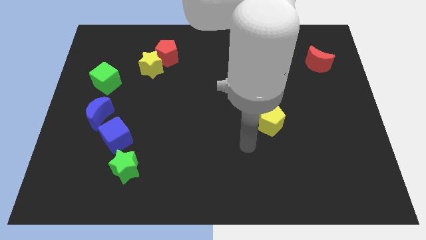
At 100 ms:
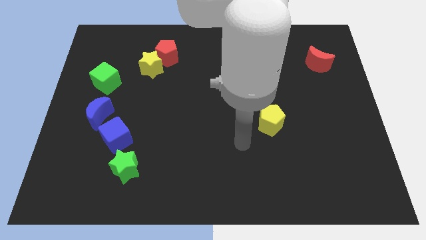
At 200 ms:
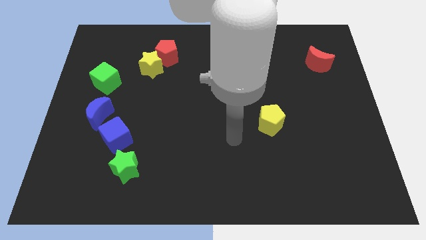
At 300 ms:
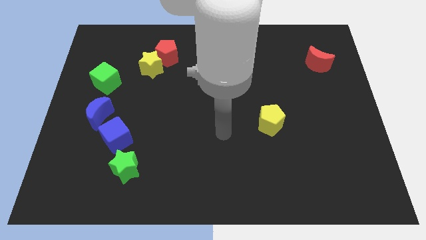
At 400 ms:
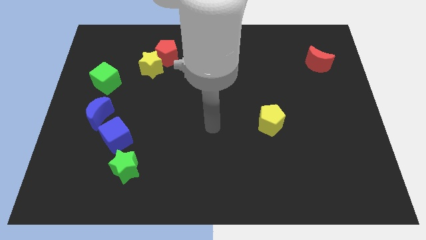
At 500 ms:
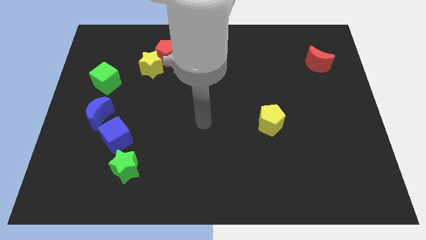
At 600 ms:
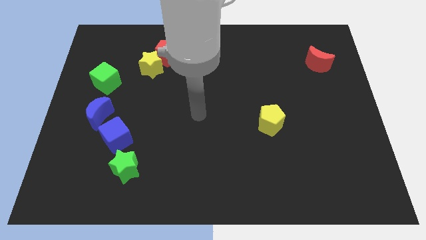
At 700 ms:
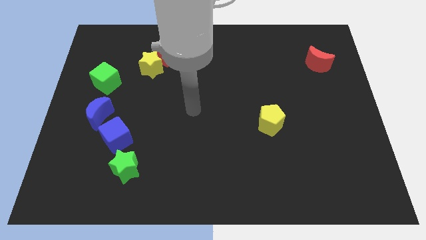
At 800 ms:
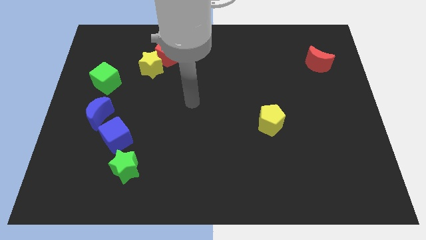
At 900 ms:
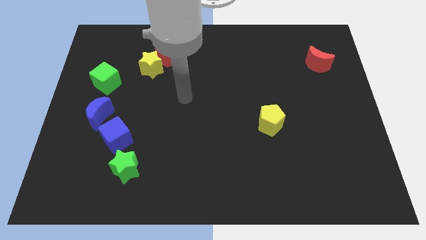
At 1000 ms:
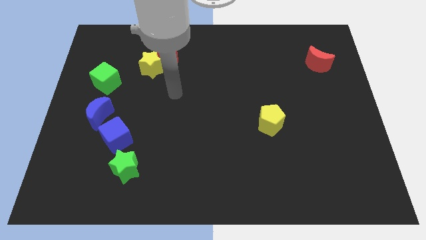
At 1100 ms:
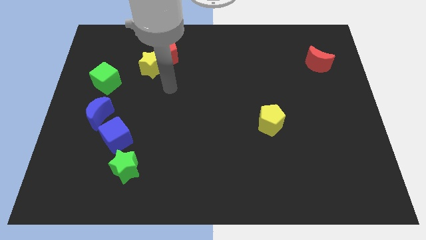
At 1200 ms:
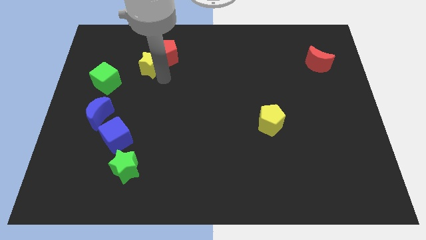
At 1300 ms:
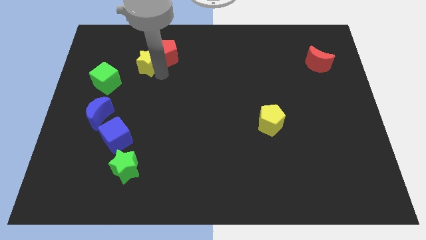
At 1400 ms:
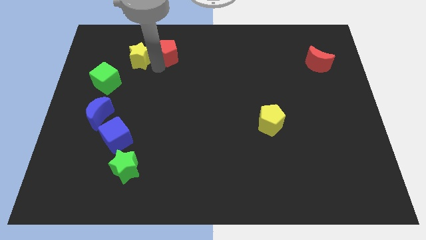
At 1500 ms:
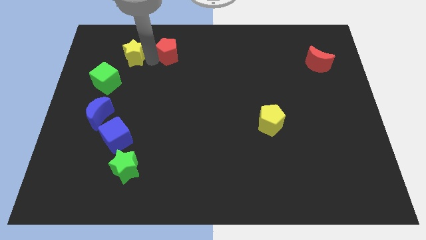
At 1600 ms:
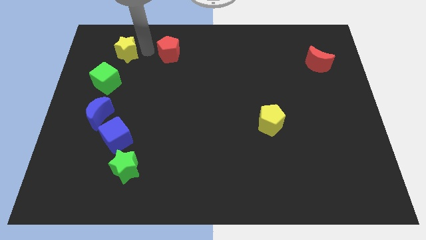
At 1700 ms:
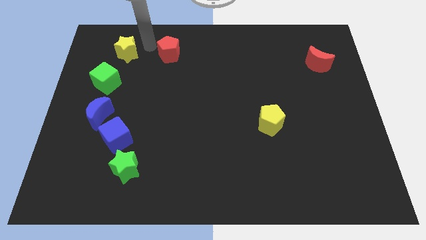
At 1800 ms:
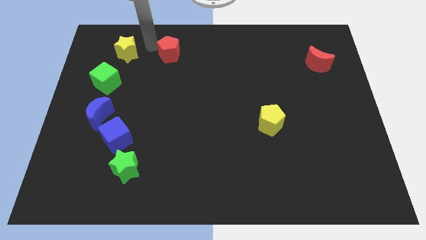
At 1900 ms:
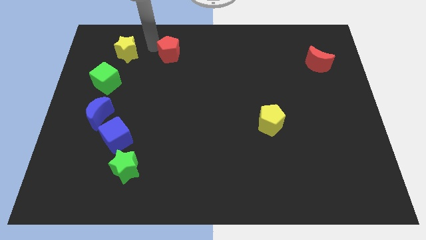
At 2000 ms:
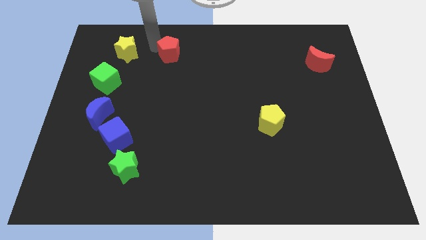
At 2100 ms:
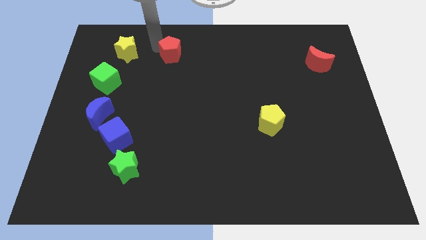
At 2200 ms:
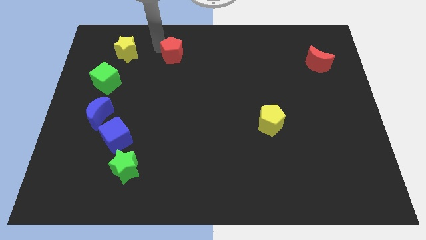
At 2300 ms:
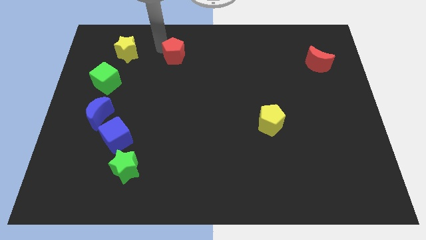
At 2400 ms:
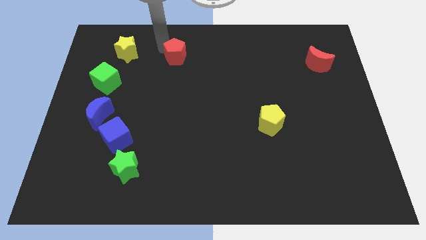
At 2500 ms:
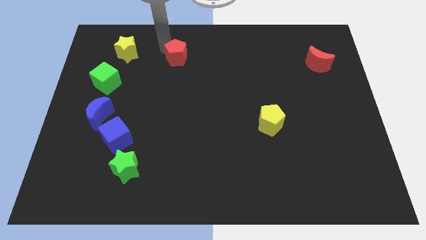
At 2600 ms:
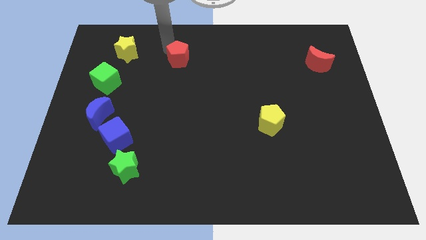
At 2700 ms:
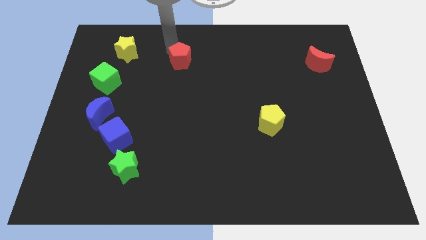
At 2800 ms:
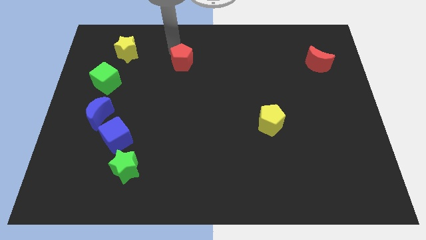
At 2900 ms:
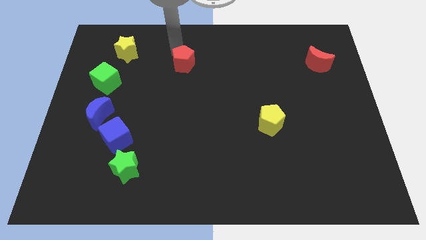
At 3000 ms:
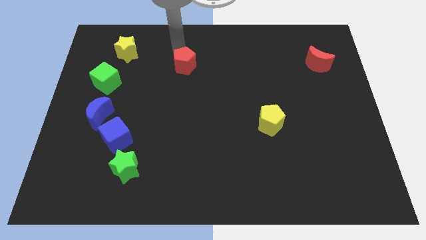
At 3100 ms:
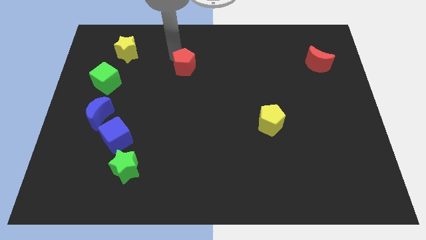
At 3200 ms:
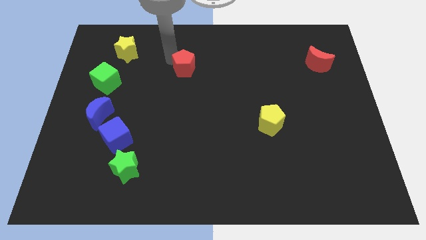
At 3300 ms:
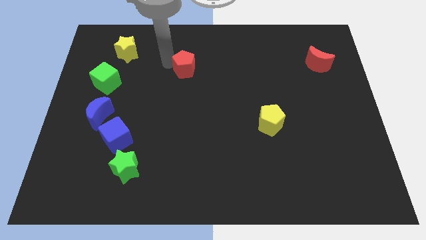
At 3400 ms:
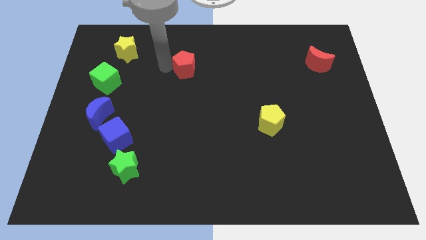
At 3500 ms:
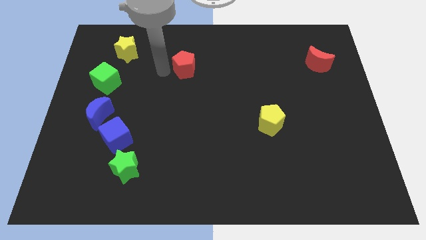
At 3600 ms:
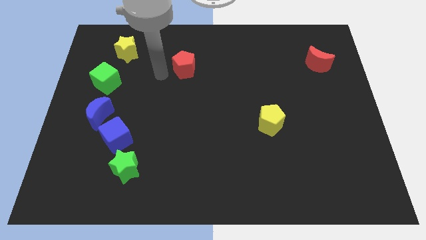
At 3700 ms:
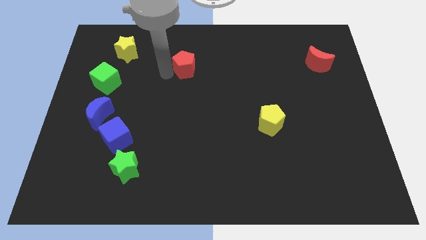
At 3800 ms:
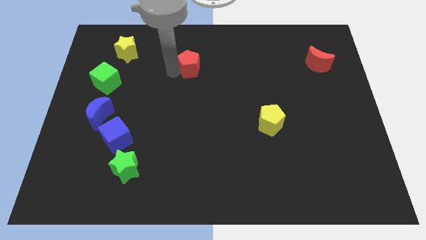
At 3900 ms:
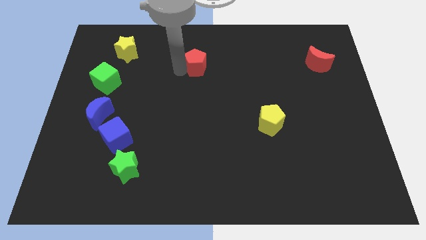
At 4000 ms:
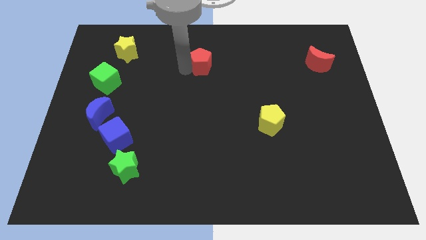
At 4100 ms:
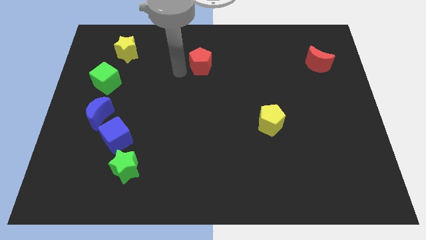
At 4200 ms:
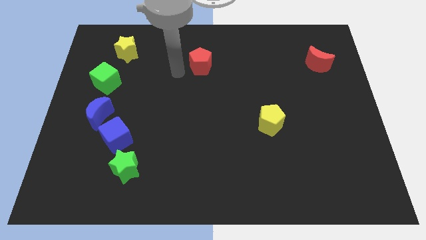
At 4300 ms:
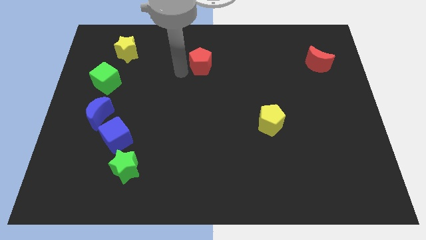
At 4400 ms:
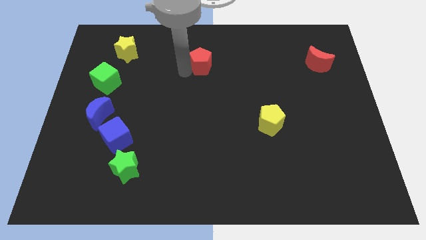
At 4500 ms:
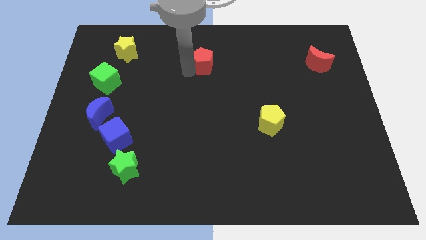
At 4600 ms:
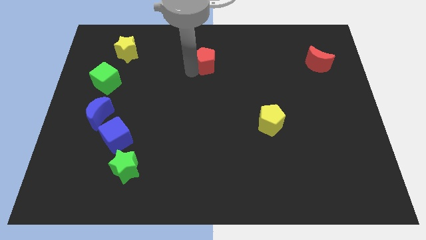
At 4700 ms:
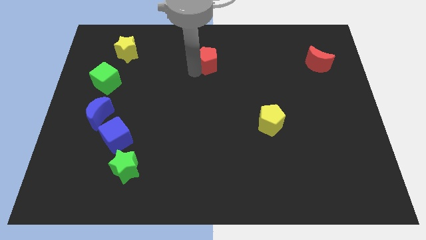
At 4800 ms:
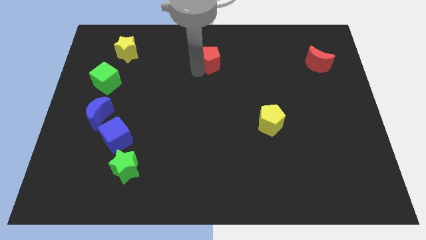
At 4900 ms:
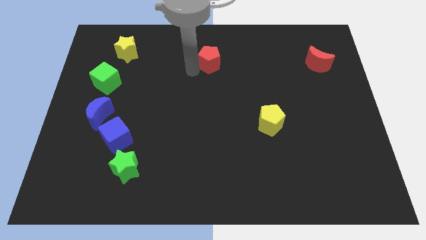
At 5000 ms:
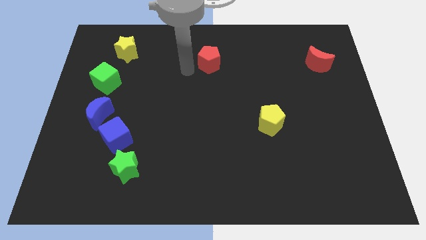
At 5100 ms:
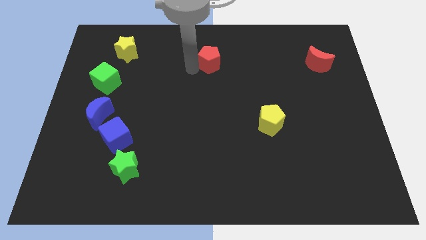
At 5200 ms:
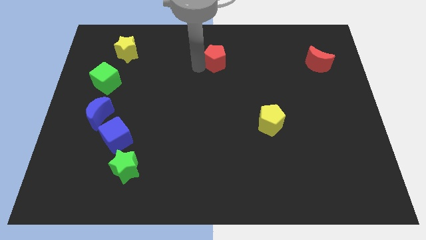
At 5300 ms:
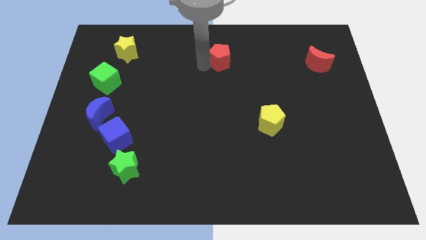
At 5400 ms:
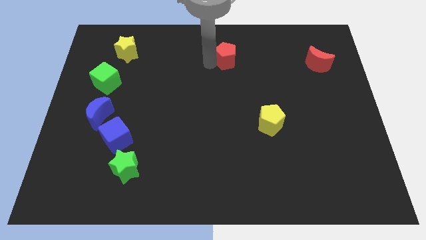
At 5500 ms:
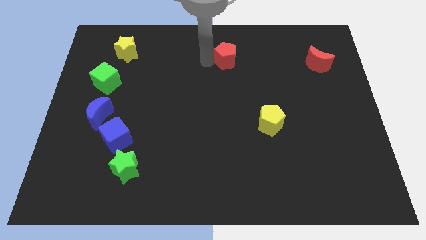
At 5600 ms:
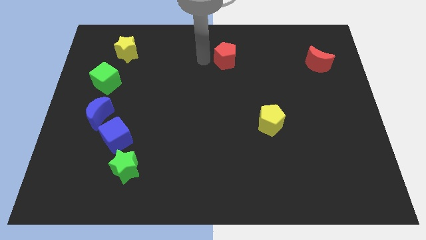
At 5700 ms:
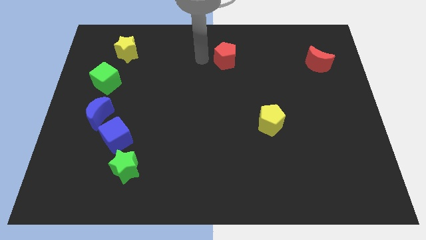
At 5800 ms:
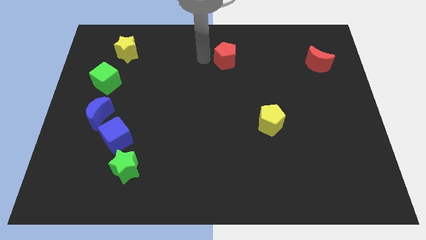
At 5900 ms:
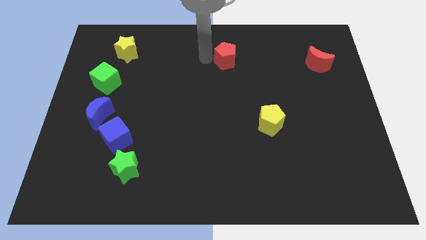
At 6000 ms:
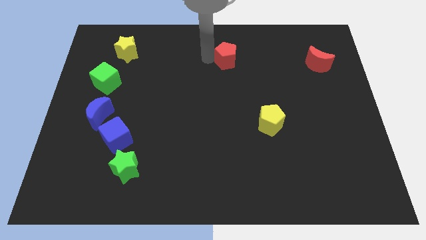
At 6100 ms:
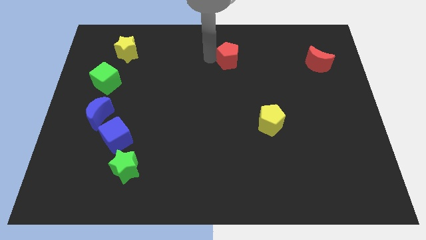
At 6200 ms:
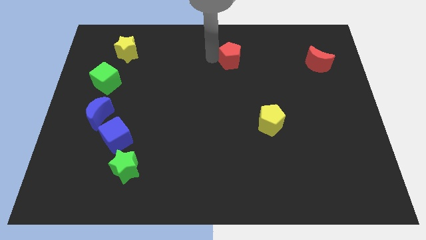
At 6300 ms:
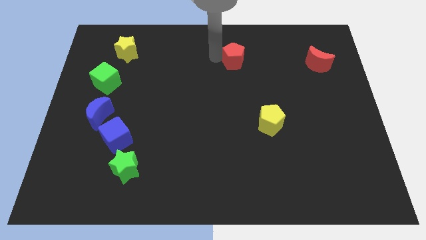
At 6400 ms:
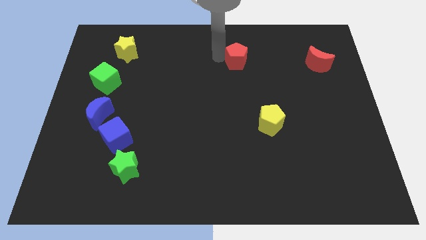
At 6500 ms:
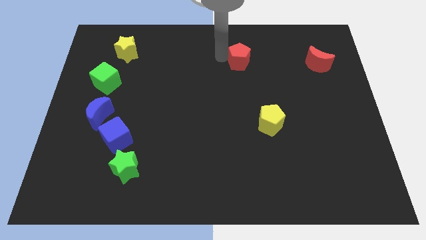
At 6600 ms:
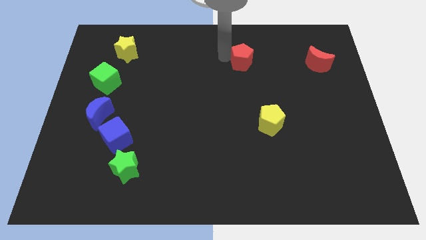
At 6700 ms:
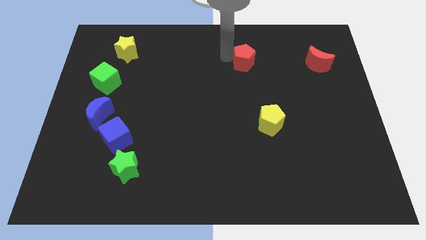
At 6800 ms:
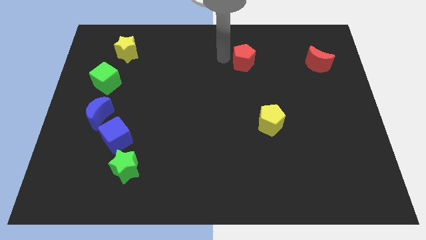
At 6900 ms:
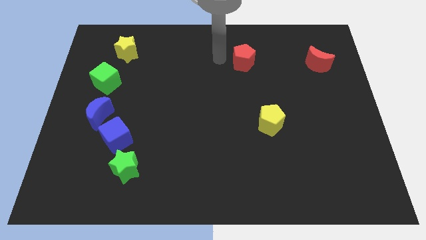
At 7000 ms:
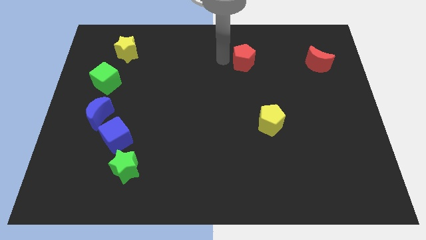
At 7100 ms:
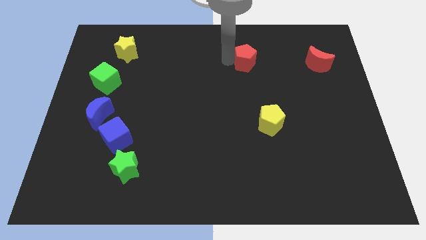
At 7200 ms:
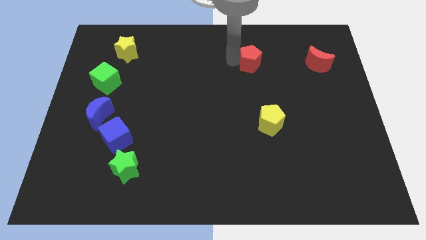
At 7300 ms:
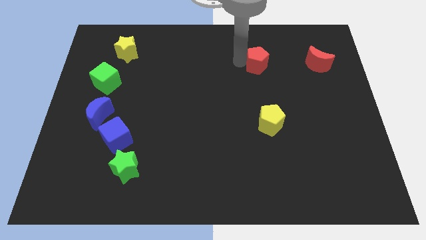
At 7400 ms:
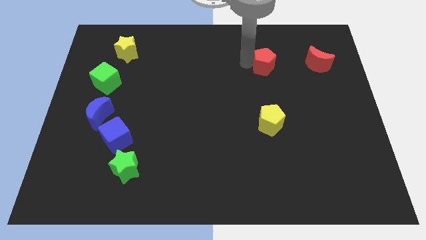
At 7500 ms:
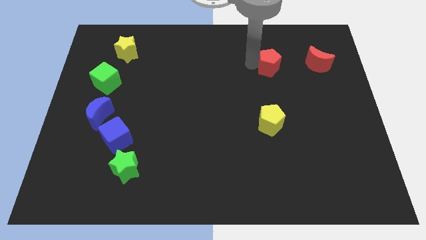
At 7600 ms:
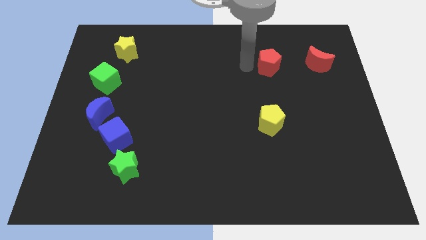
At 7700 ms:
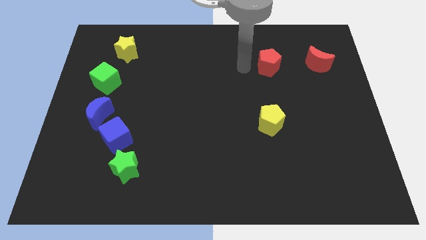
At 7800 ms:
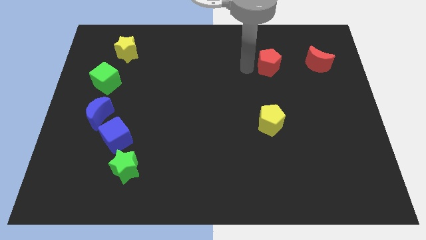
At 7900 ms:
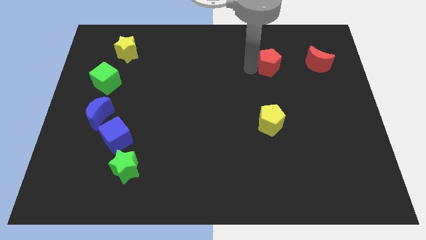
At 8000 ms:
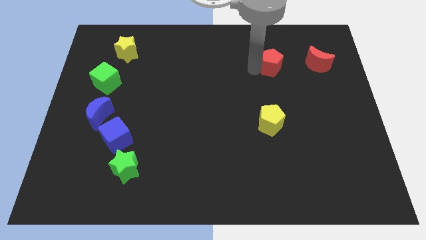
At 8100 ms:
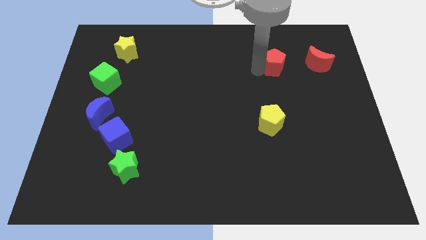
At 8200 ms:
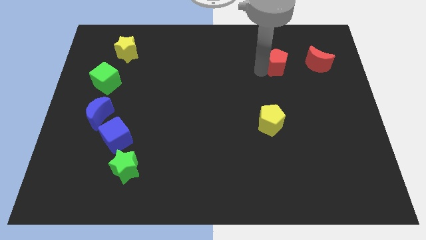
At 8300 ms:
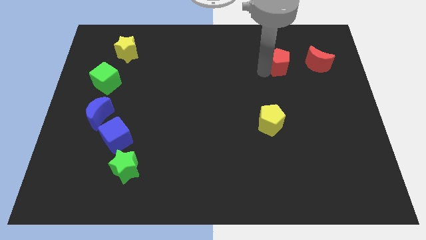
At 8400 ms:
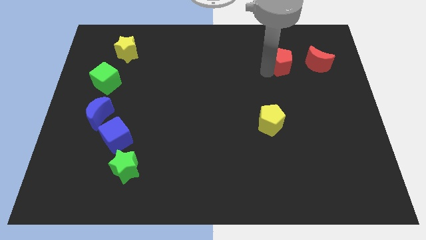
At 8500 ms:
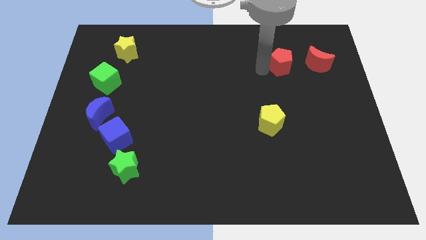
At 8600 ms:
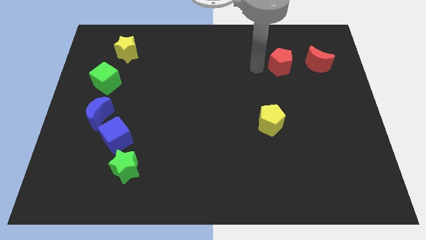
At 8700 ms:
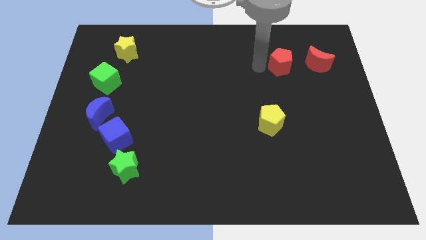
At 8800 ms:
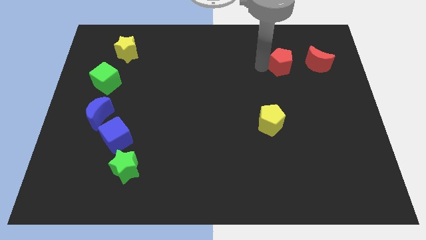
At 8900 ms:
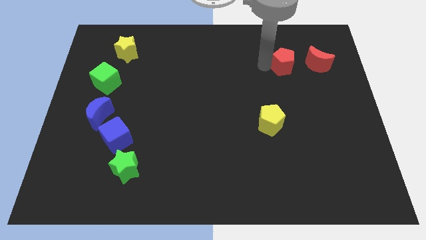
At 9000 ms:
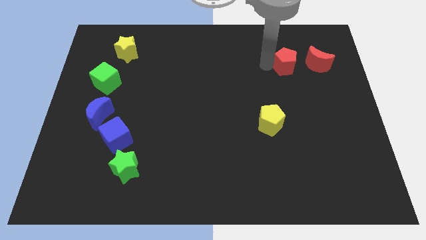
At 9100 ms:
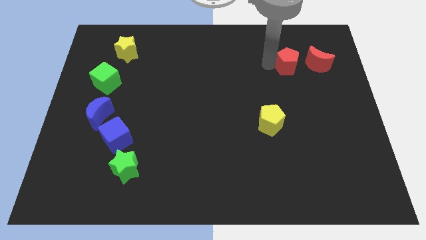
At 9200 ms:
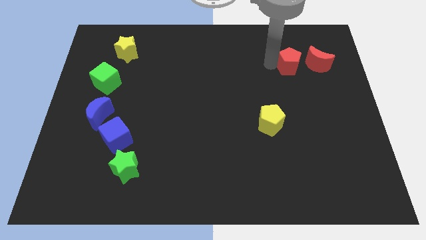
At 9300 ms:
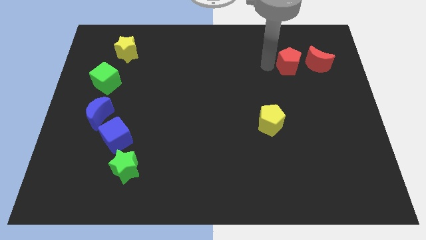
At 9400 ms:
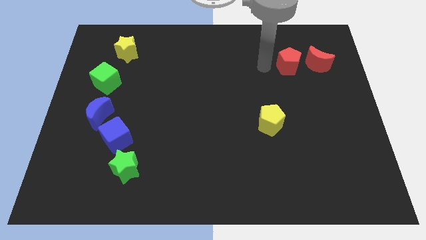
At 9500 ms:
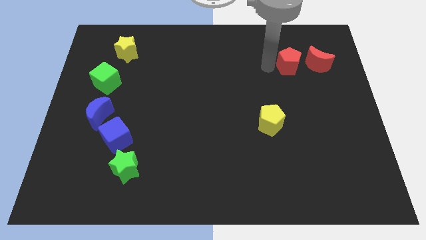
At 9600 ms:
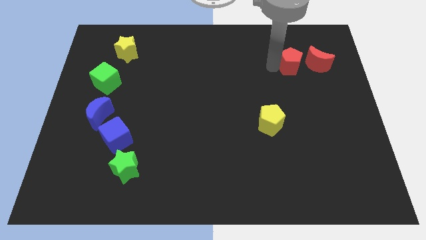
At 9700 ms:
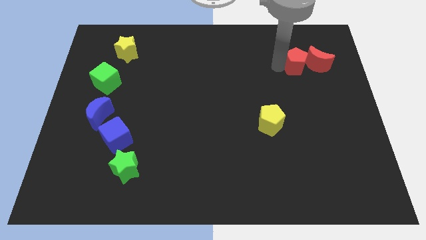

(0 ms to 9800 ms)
slide the red pentagon next to the red moon
